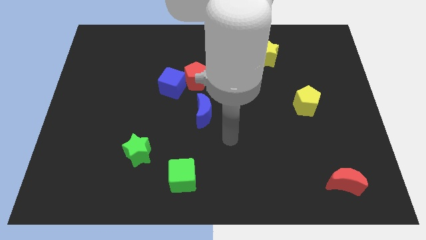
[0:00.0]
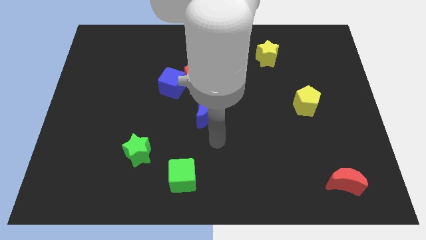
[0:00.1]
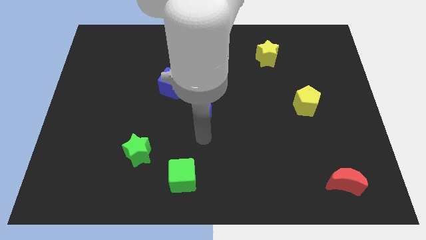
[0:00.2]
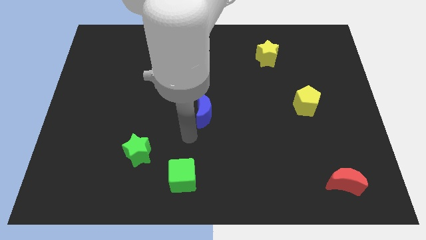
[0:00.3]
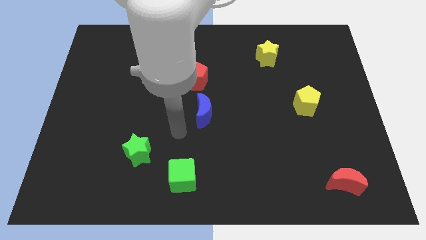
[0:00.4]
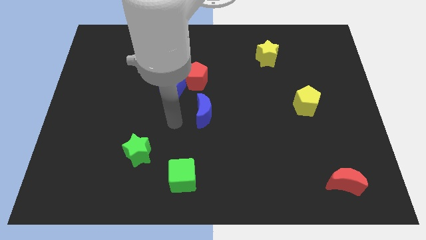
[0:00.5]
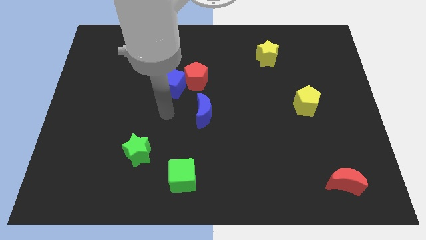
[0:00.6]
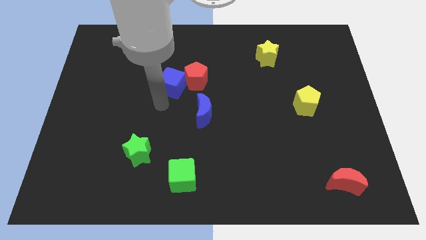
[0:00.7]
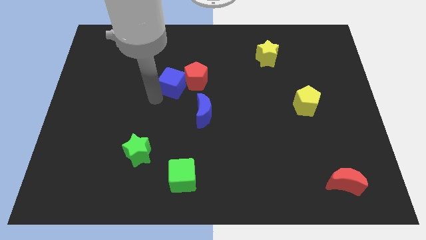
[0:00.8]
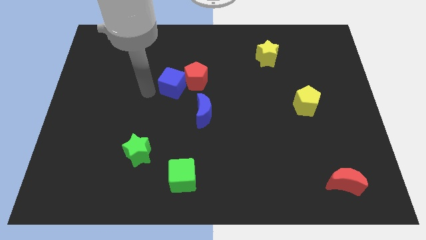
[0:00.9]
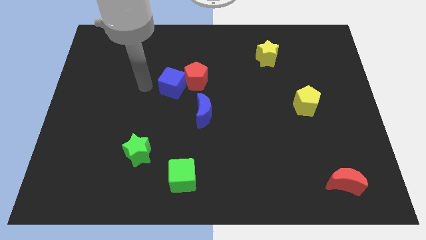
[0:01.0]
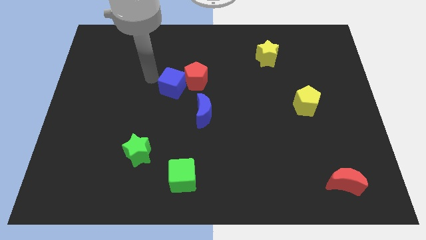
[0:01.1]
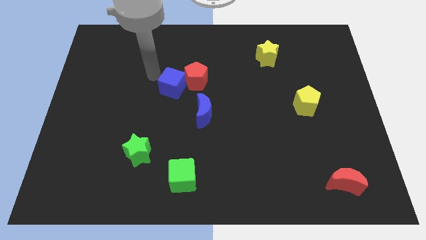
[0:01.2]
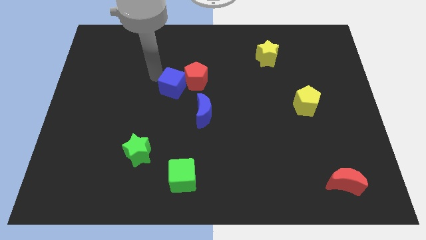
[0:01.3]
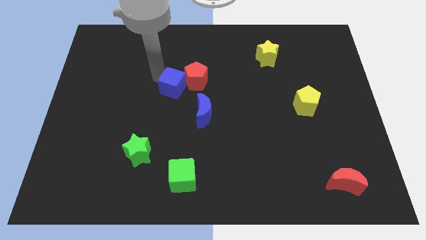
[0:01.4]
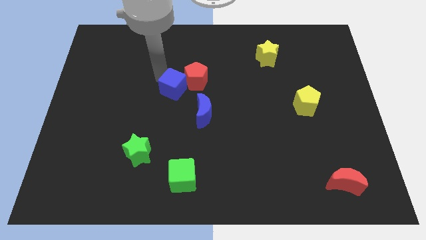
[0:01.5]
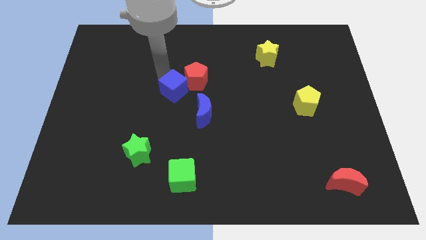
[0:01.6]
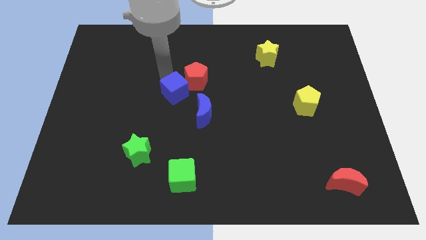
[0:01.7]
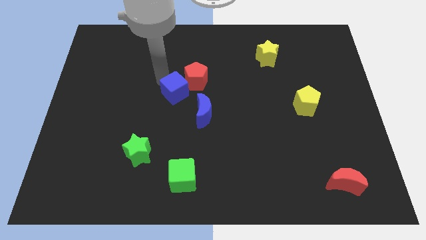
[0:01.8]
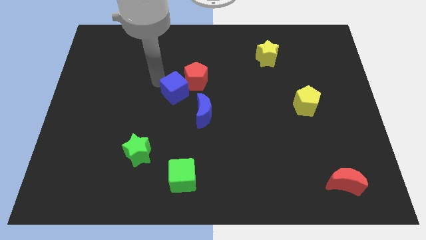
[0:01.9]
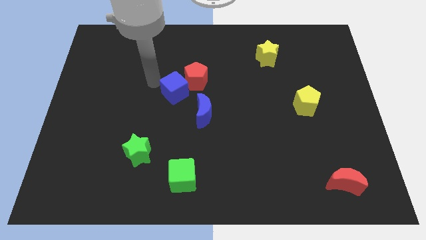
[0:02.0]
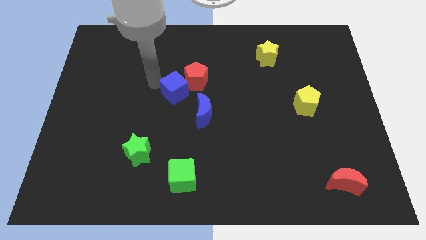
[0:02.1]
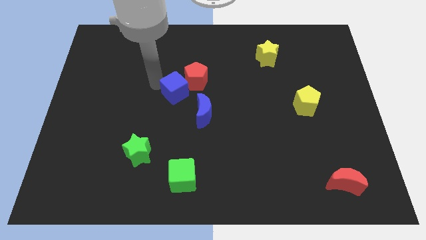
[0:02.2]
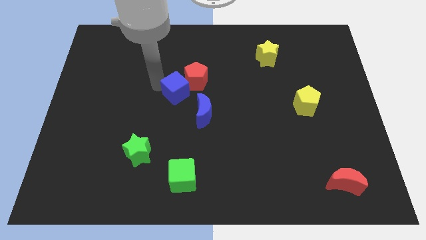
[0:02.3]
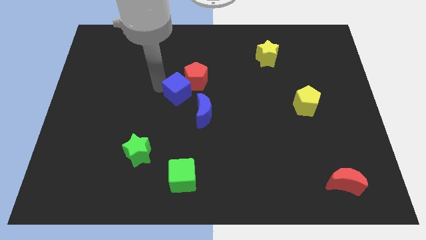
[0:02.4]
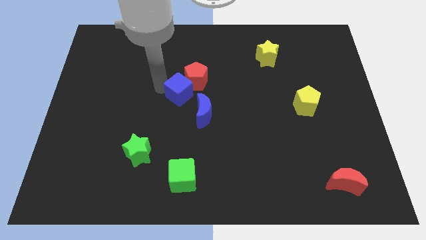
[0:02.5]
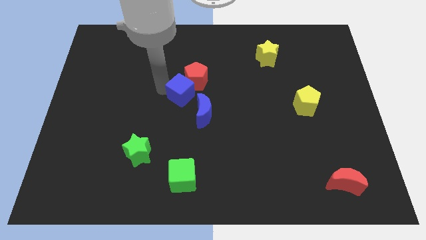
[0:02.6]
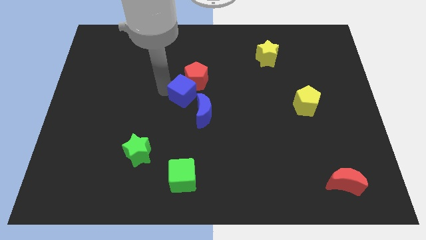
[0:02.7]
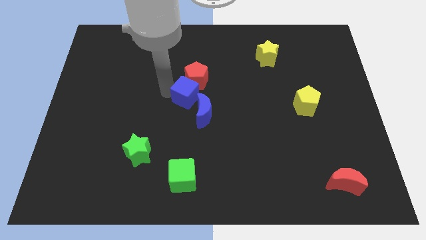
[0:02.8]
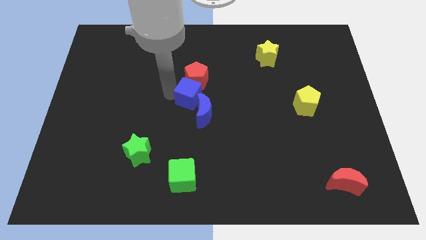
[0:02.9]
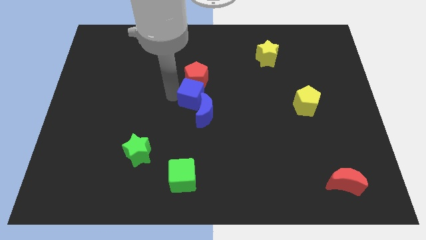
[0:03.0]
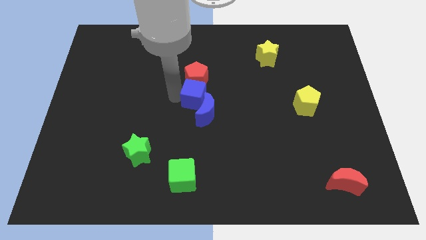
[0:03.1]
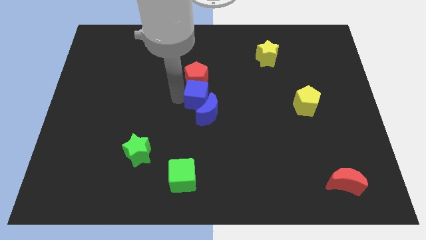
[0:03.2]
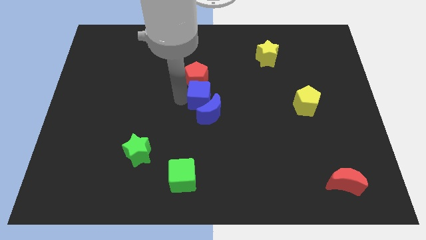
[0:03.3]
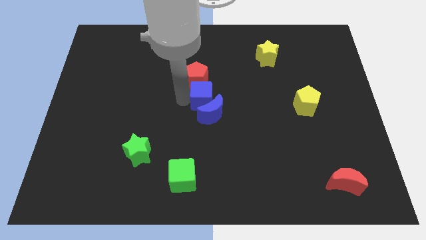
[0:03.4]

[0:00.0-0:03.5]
move the blue cube a bit to the right

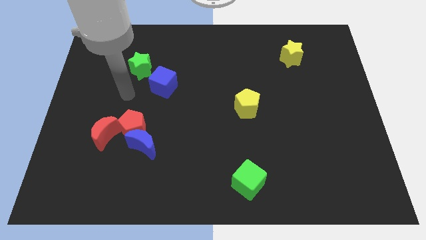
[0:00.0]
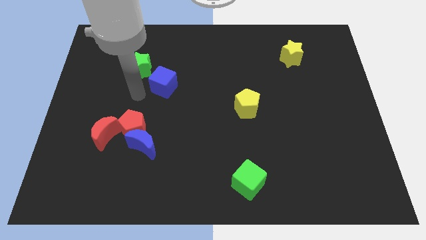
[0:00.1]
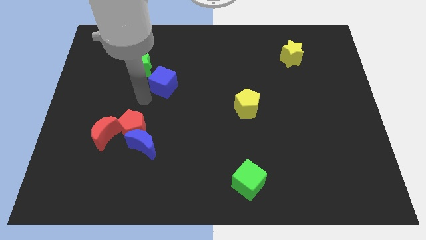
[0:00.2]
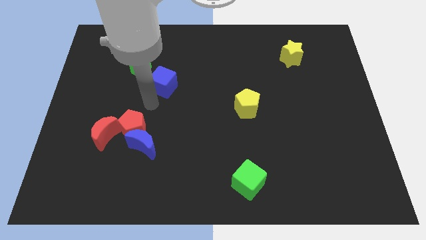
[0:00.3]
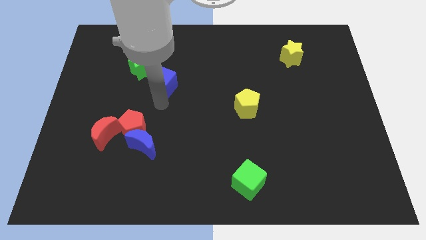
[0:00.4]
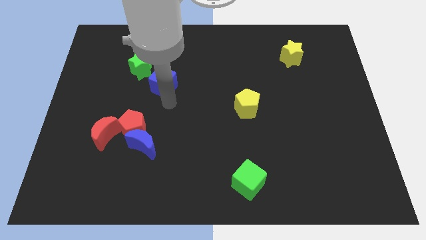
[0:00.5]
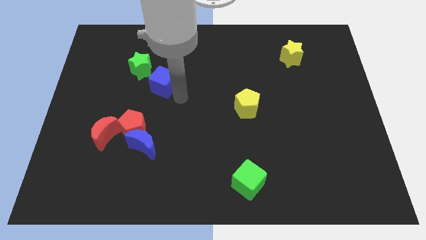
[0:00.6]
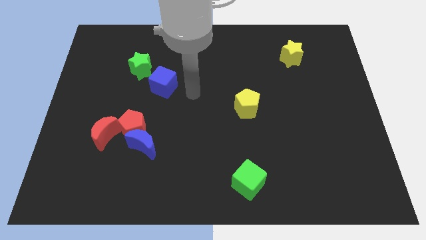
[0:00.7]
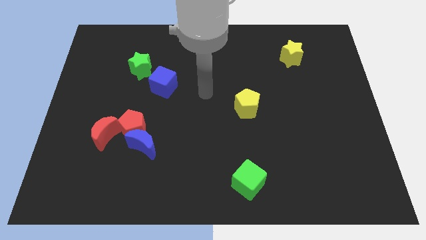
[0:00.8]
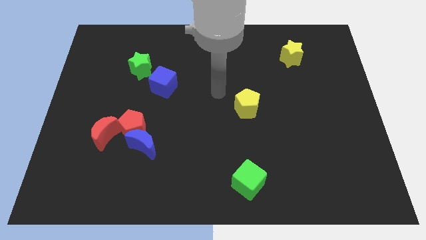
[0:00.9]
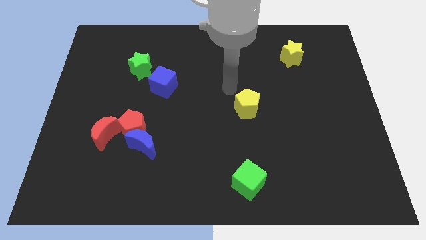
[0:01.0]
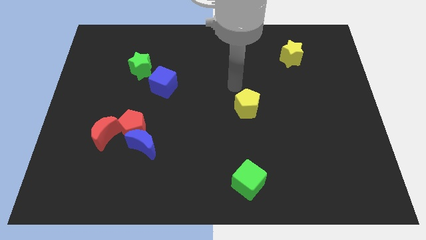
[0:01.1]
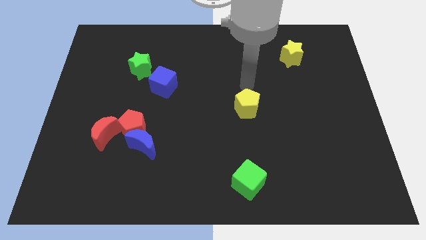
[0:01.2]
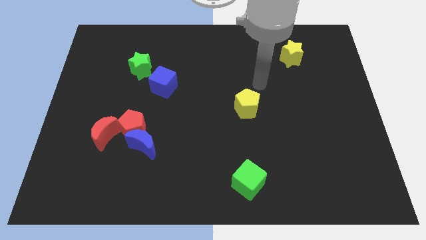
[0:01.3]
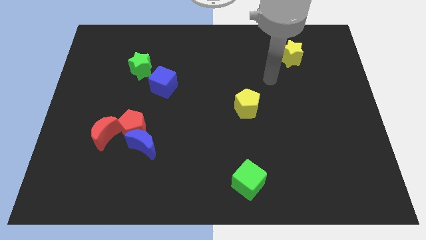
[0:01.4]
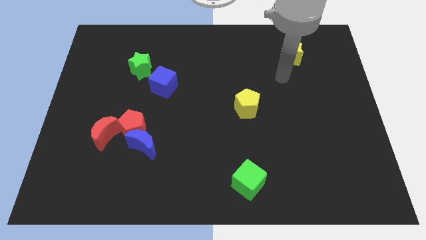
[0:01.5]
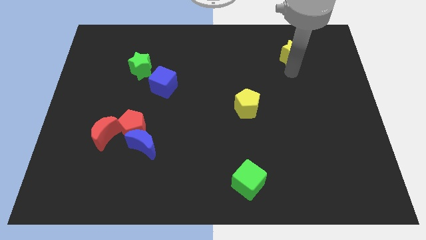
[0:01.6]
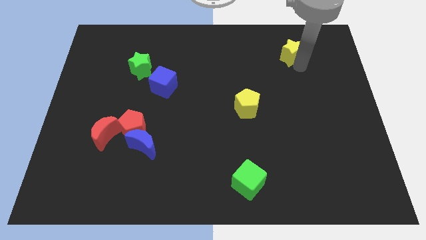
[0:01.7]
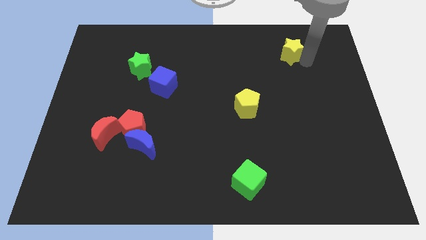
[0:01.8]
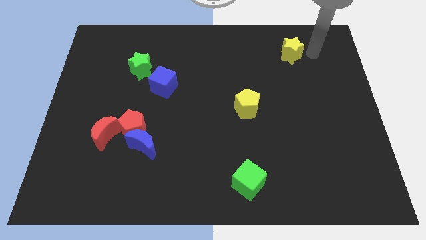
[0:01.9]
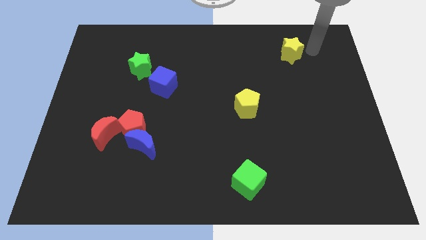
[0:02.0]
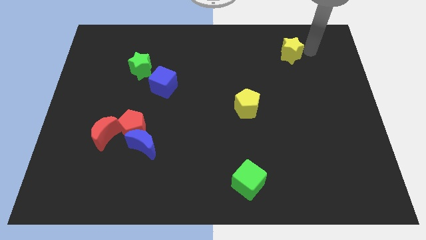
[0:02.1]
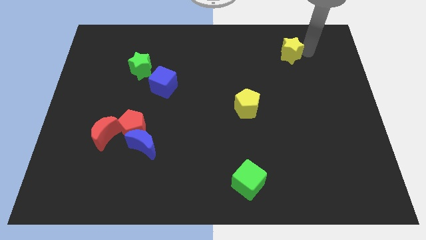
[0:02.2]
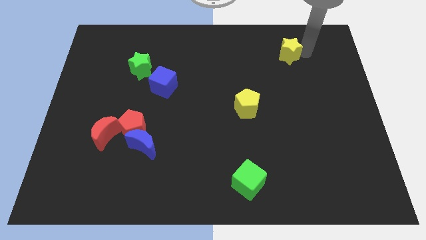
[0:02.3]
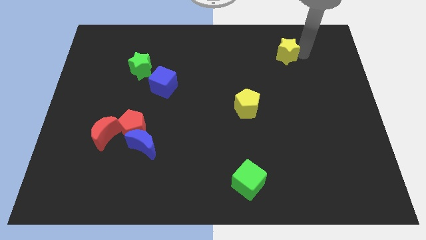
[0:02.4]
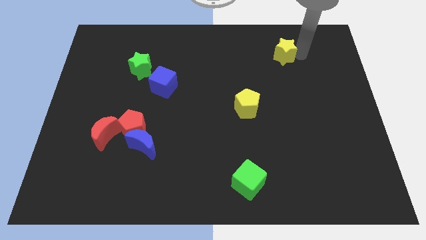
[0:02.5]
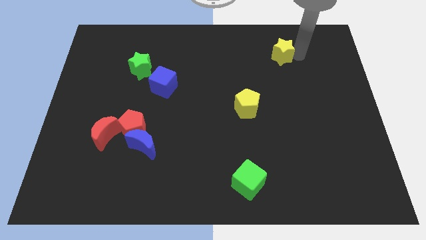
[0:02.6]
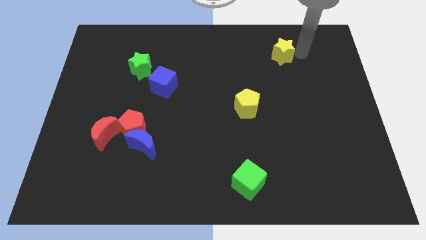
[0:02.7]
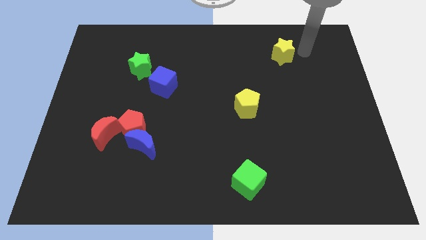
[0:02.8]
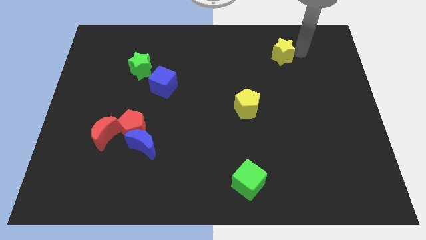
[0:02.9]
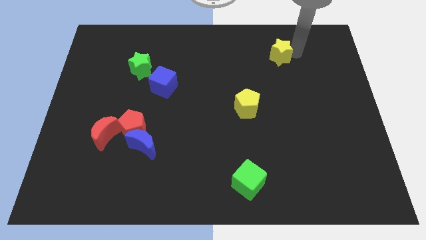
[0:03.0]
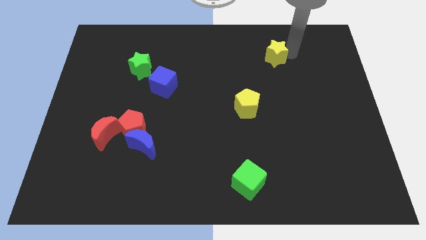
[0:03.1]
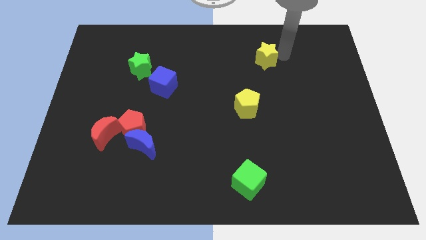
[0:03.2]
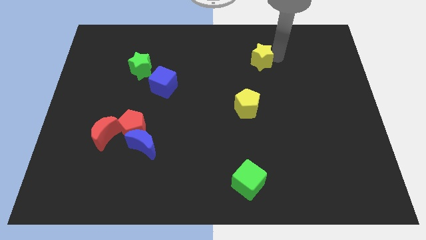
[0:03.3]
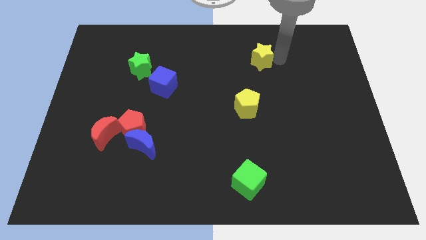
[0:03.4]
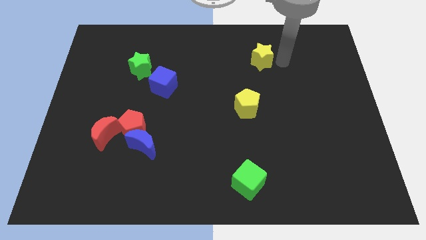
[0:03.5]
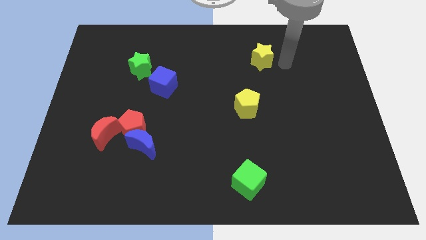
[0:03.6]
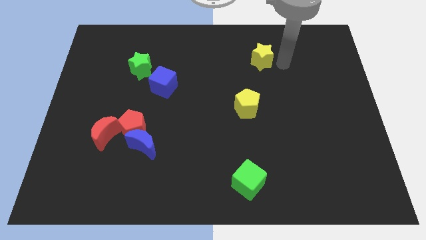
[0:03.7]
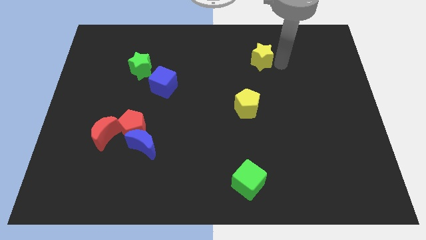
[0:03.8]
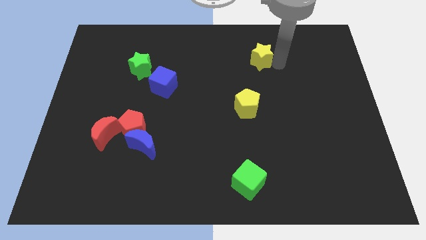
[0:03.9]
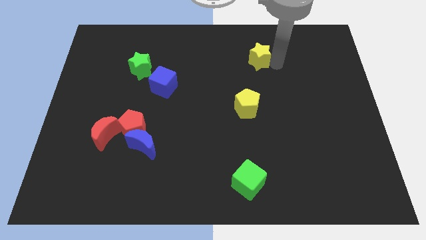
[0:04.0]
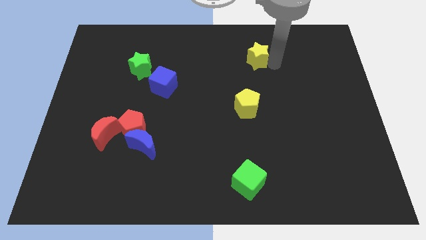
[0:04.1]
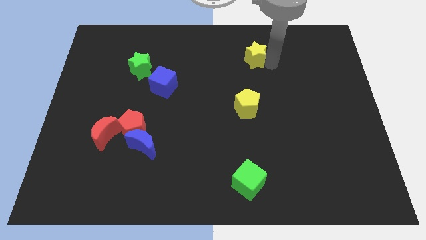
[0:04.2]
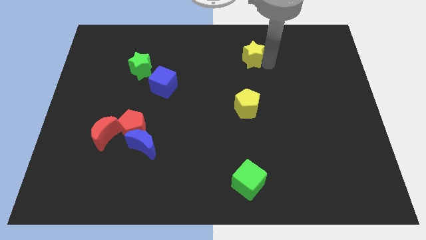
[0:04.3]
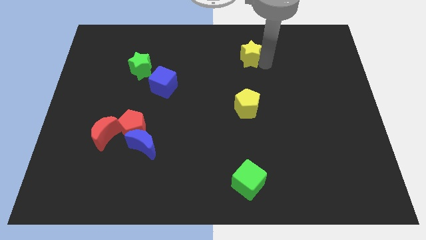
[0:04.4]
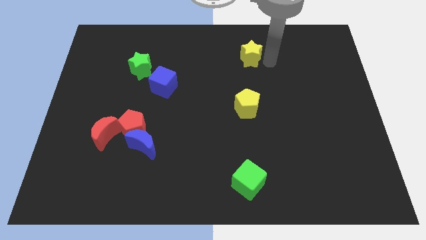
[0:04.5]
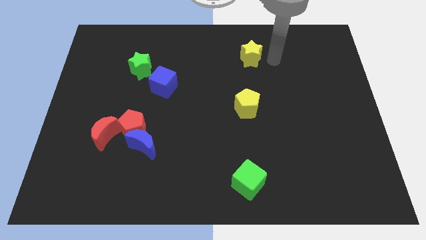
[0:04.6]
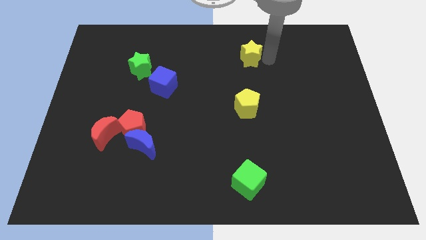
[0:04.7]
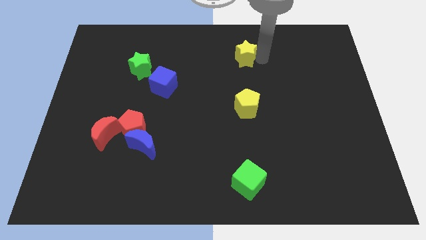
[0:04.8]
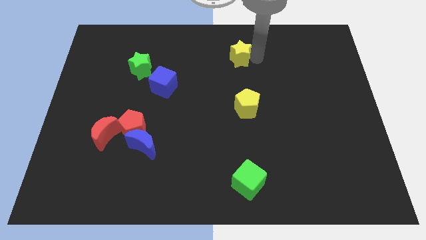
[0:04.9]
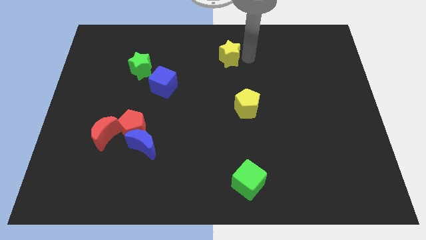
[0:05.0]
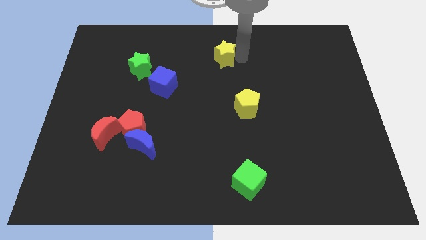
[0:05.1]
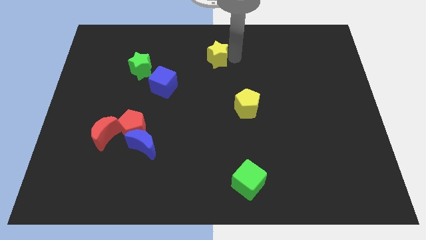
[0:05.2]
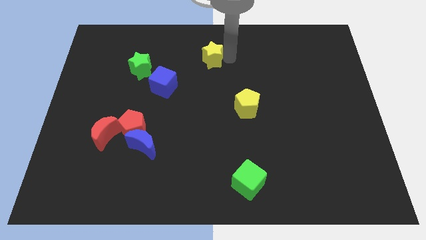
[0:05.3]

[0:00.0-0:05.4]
slide the yellow star to the left
